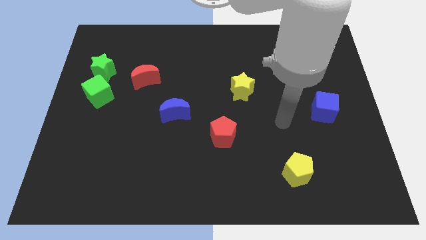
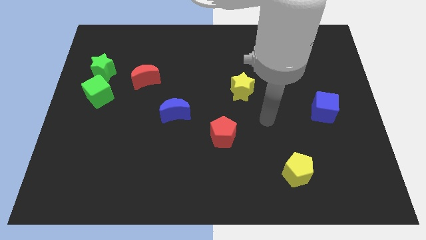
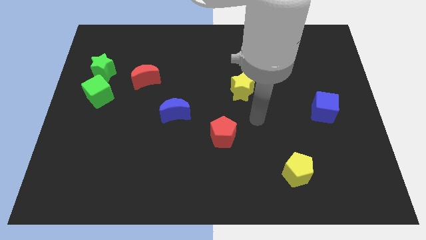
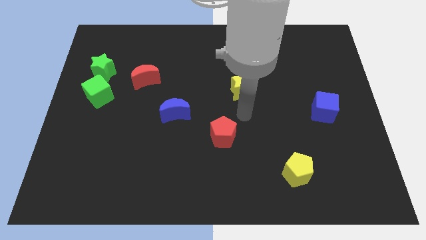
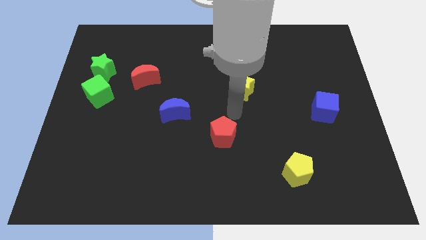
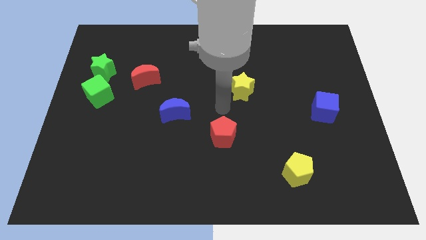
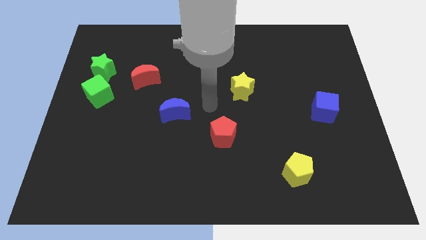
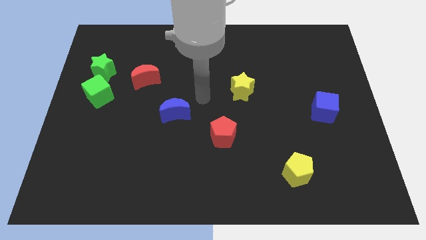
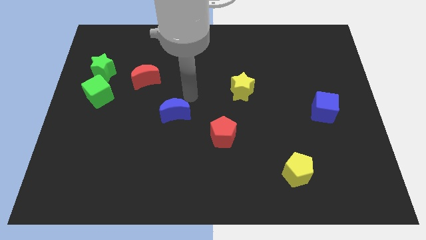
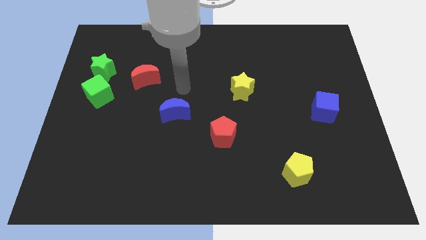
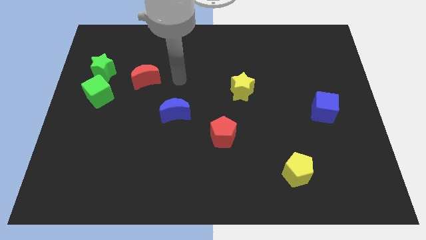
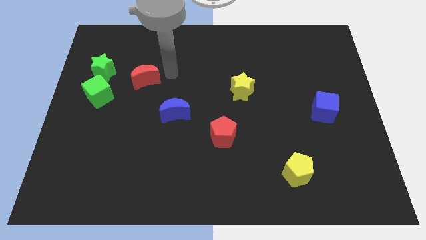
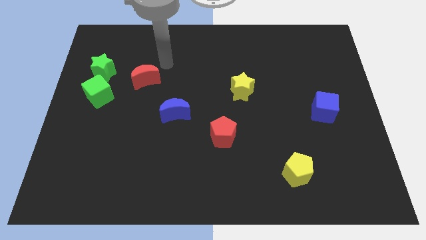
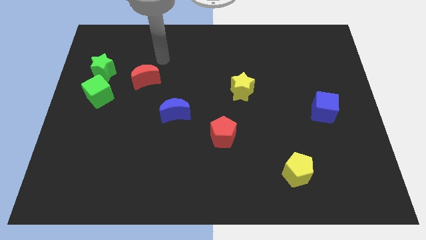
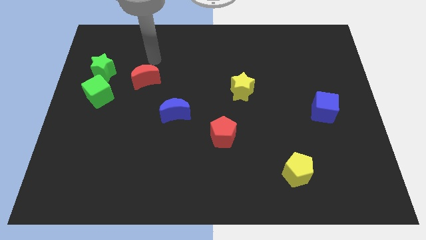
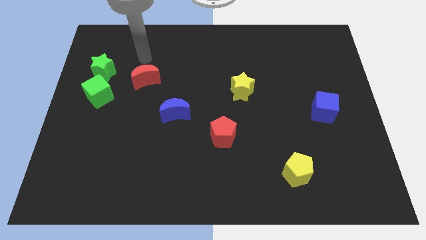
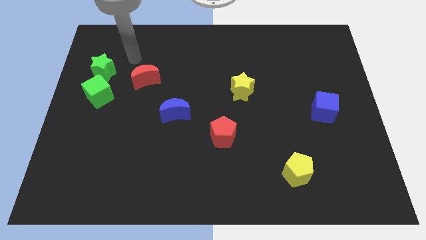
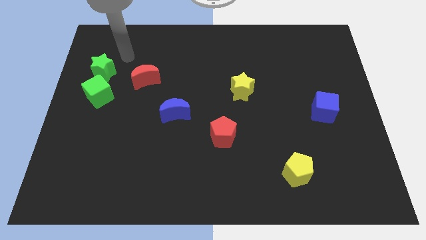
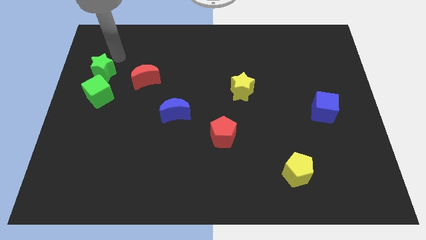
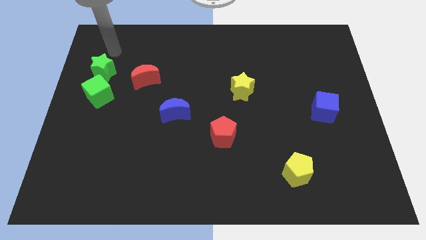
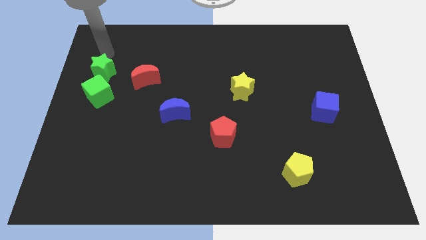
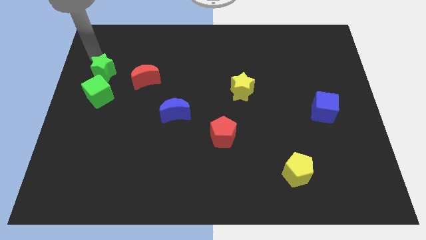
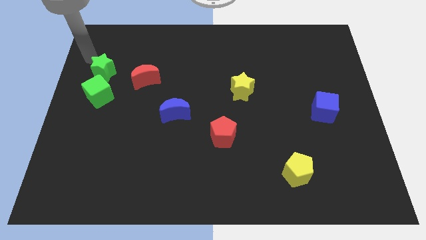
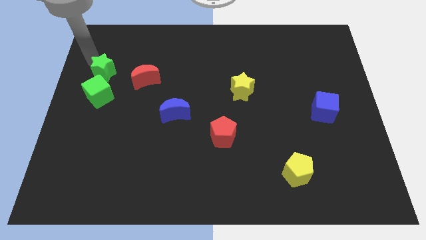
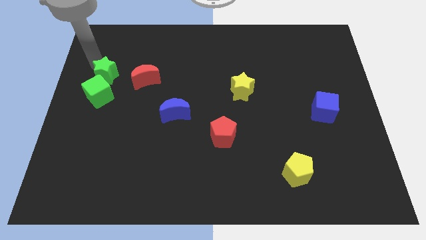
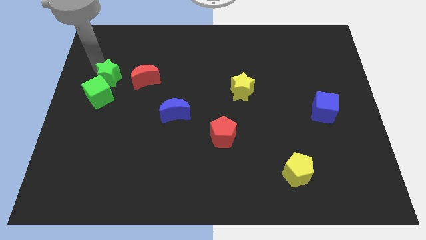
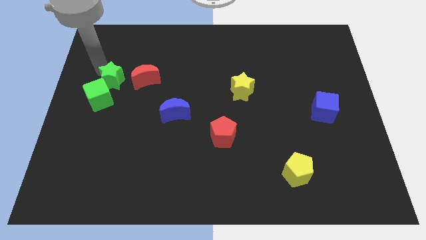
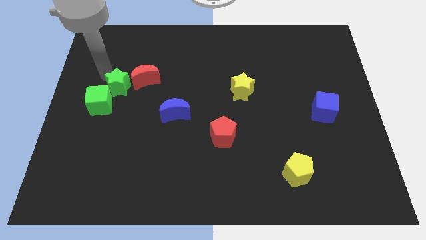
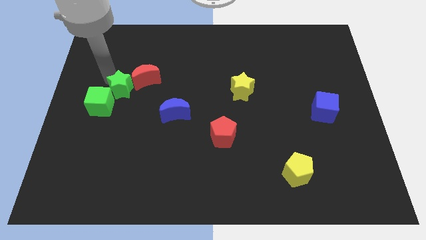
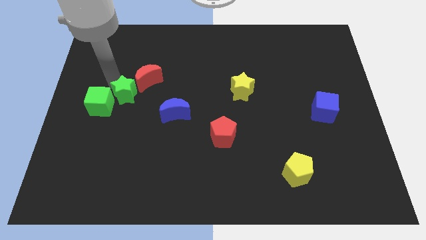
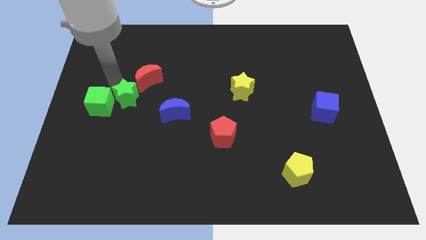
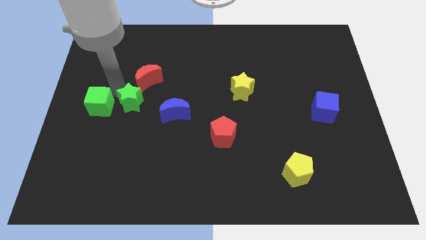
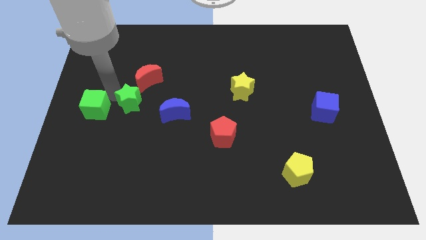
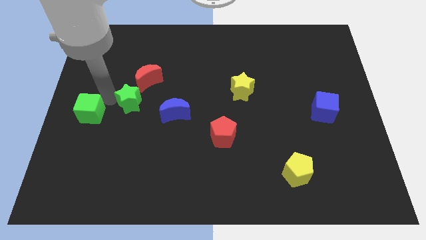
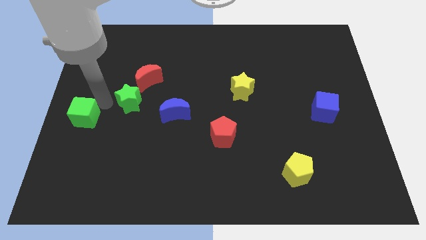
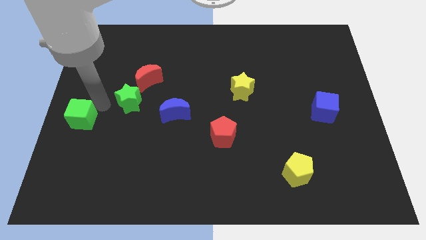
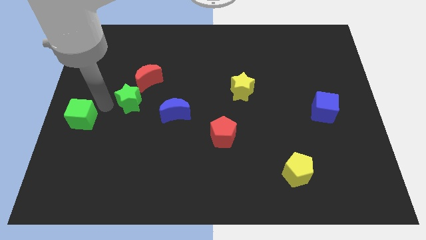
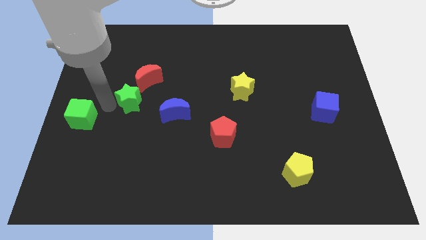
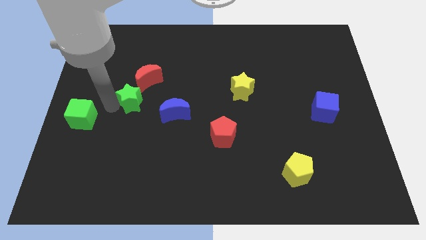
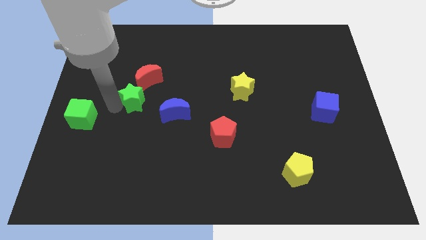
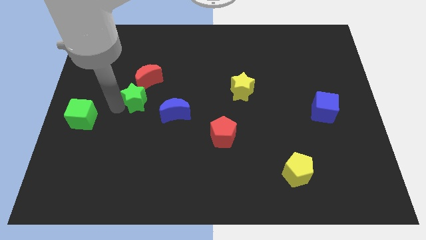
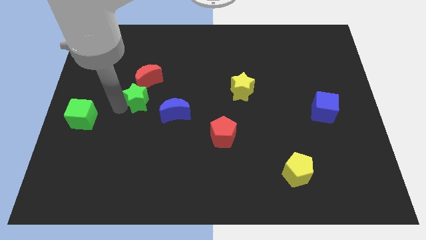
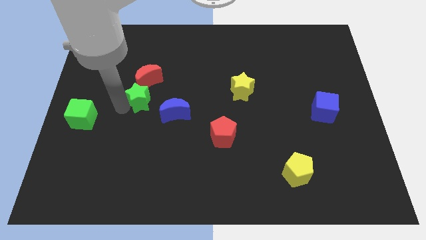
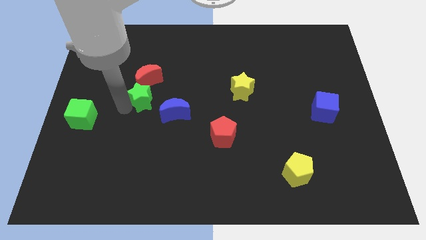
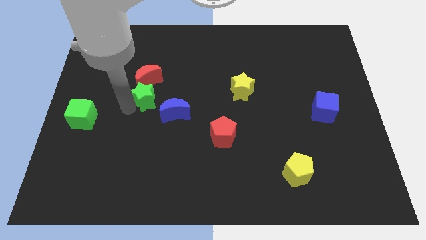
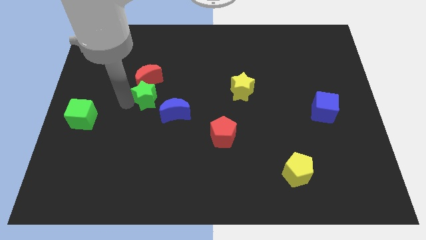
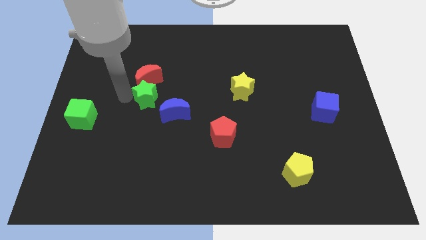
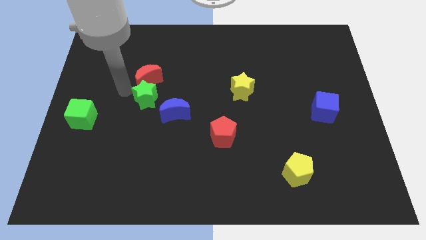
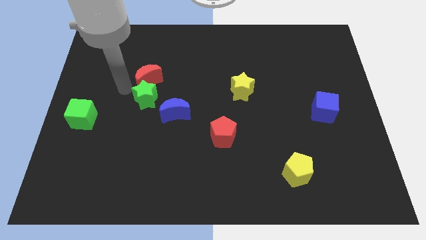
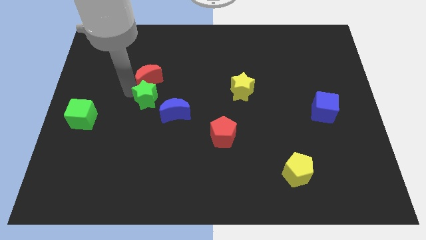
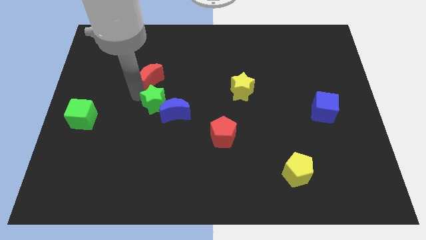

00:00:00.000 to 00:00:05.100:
push the green star towards the blue moon

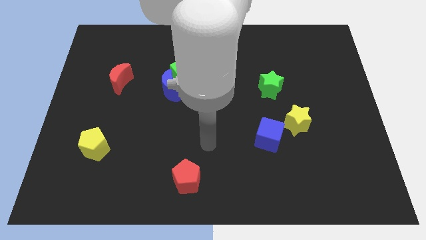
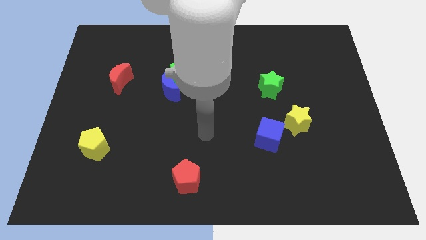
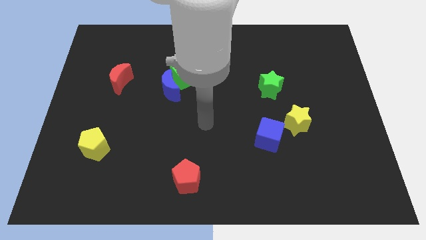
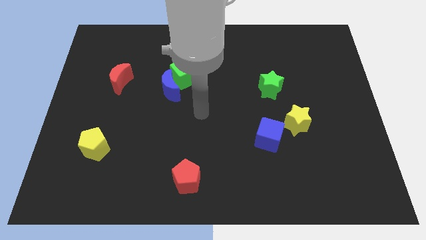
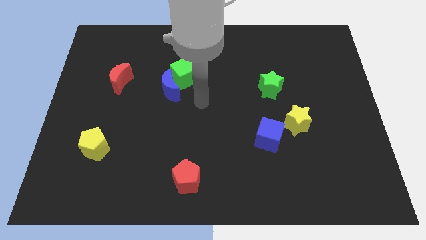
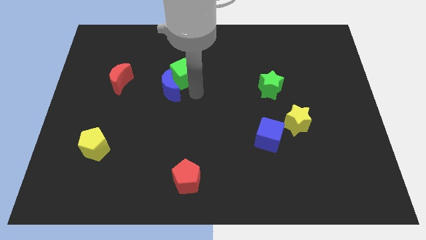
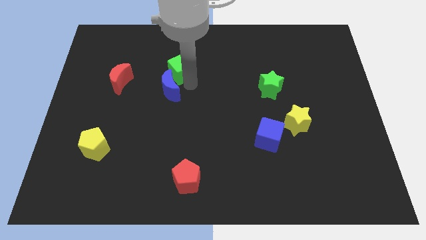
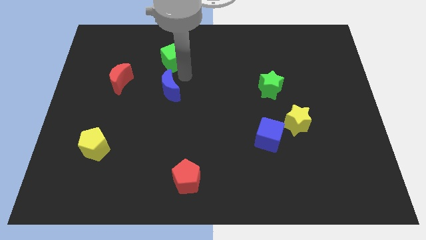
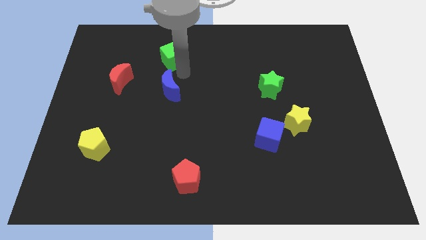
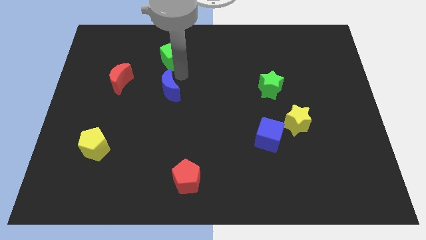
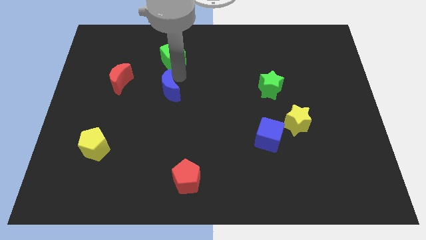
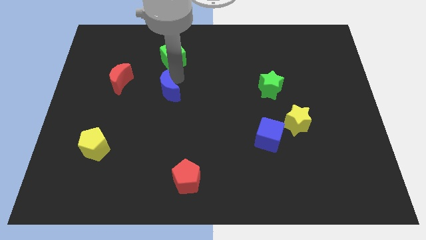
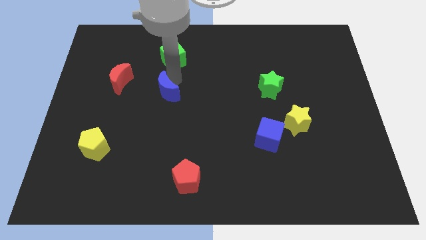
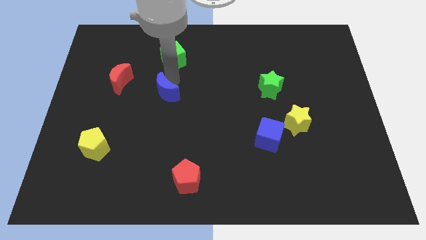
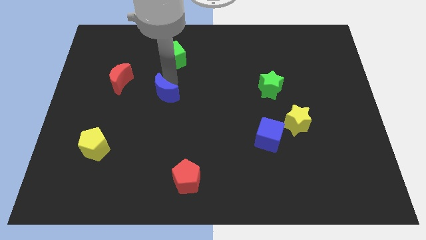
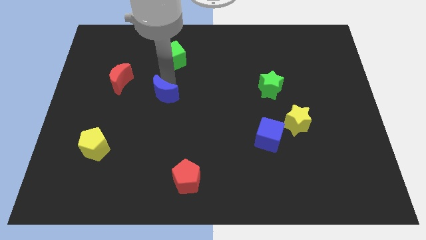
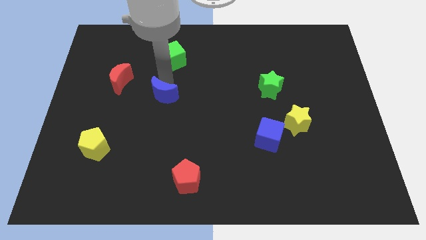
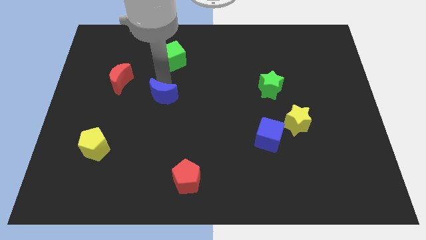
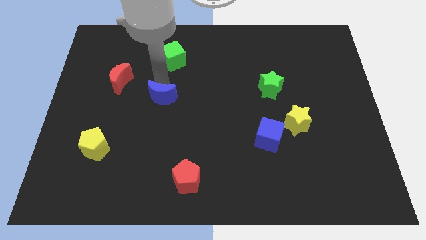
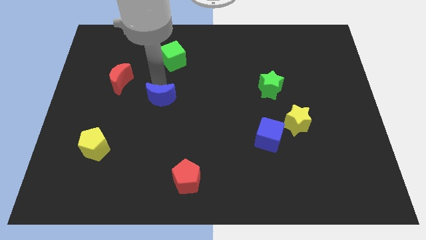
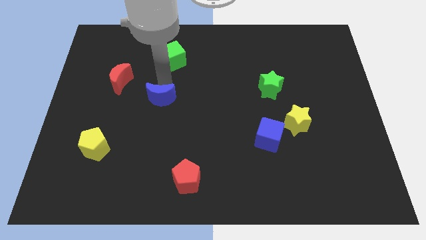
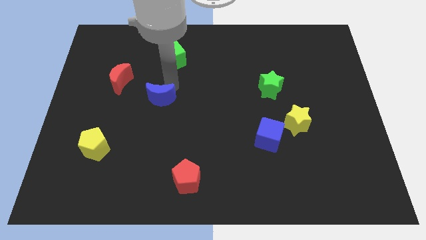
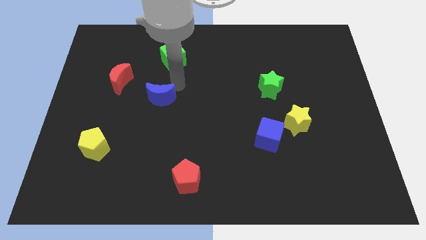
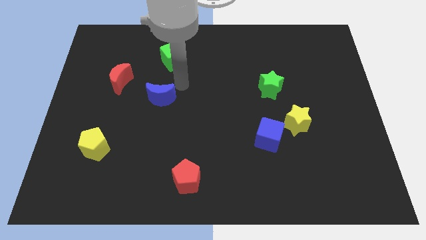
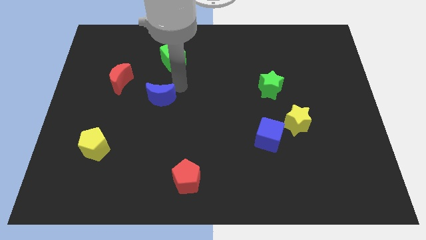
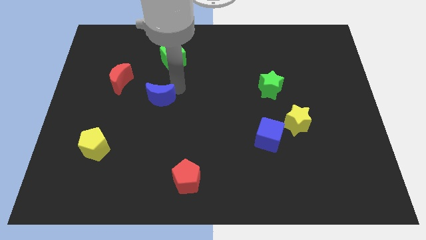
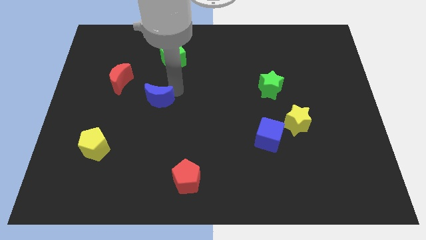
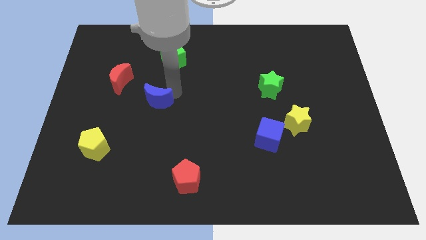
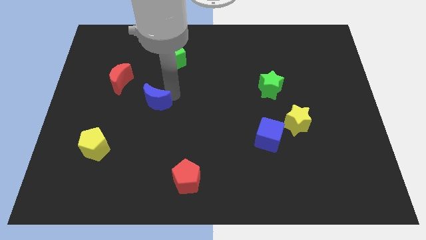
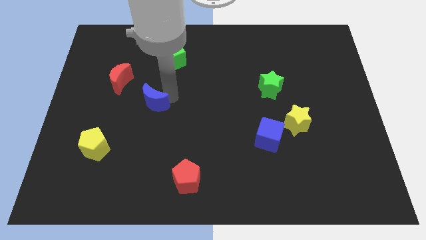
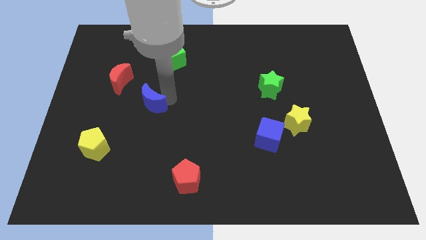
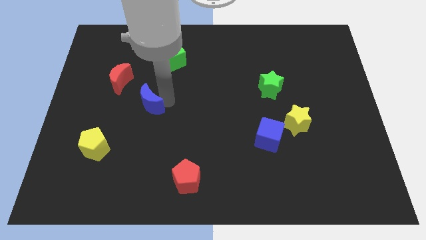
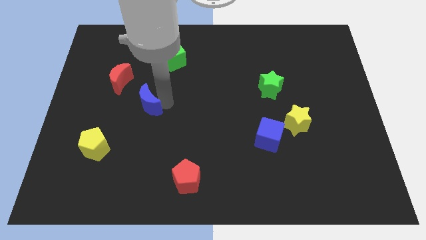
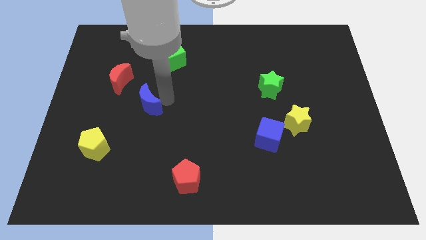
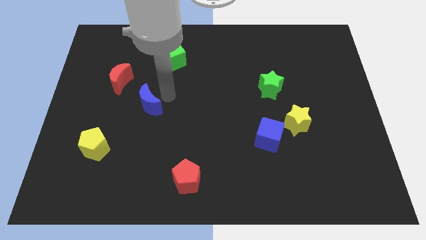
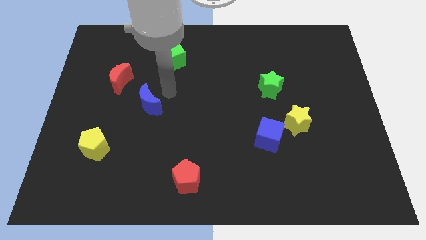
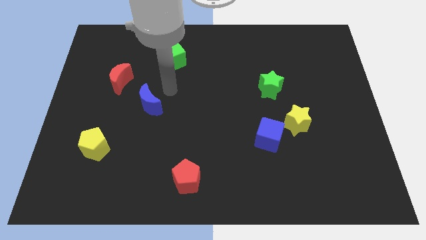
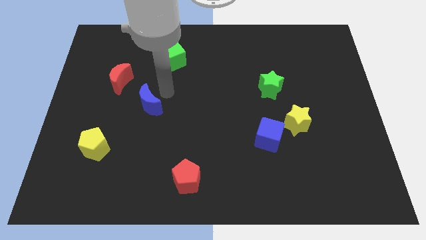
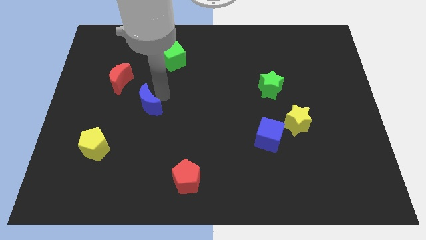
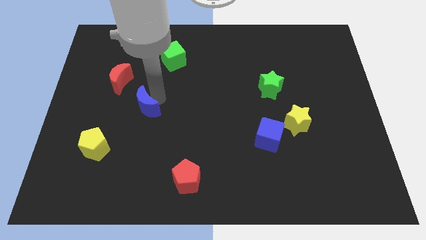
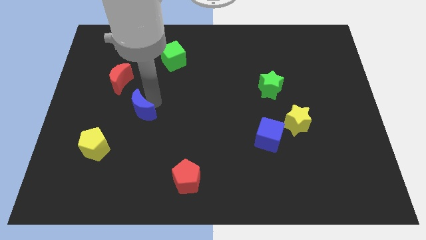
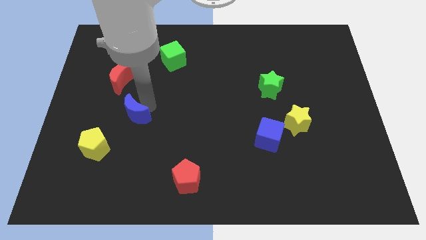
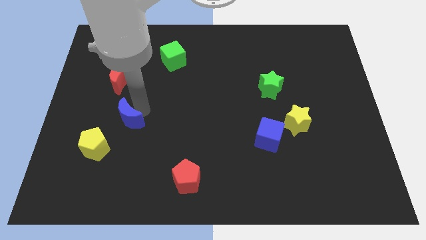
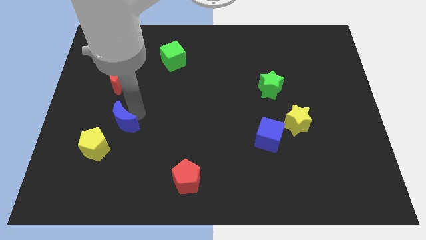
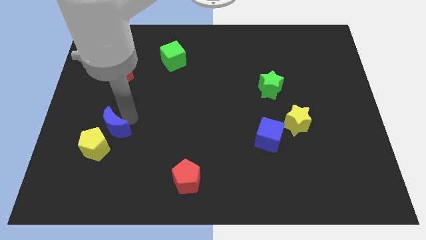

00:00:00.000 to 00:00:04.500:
put the blue moon to the yellow pentagon
